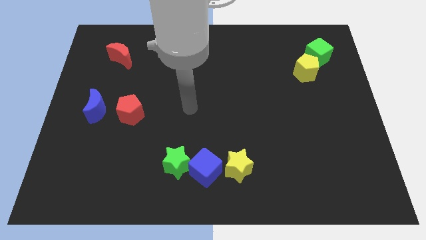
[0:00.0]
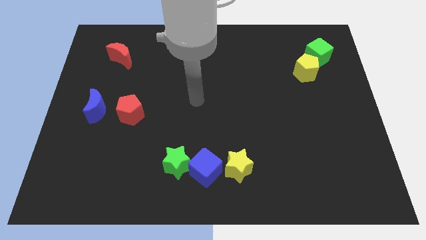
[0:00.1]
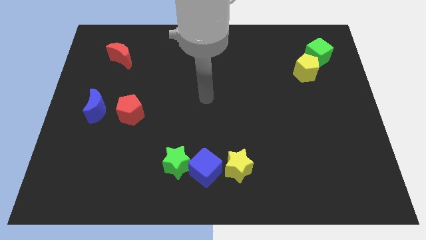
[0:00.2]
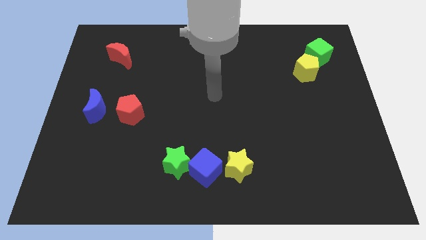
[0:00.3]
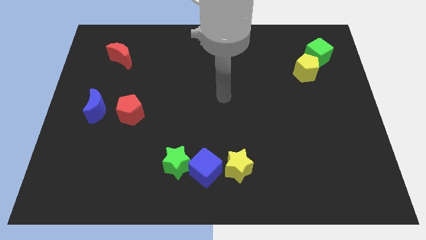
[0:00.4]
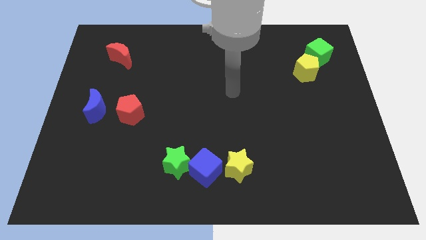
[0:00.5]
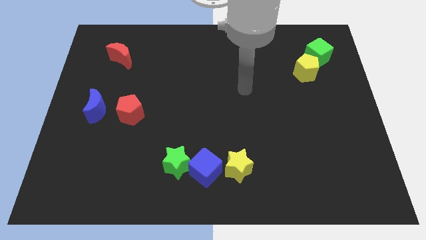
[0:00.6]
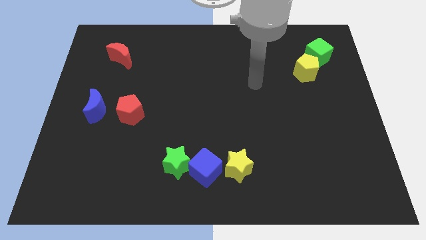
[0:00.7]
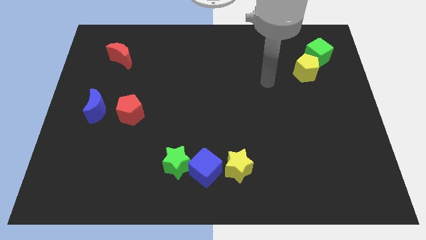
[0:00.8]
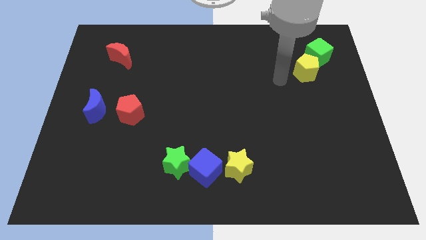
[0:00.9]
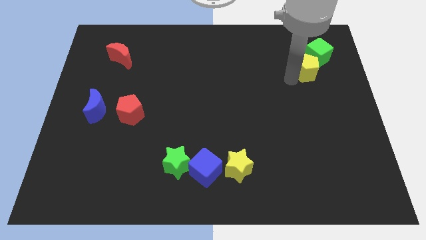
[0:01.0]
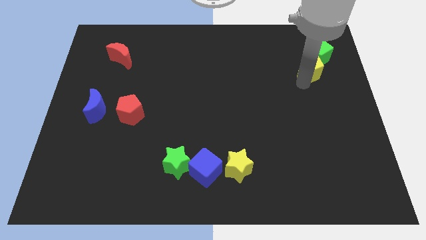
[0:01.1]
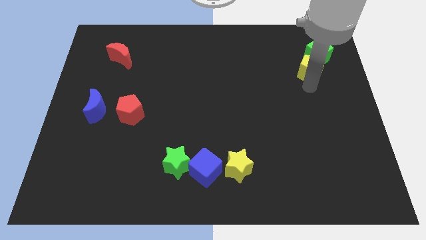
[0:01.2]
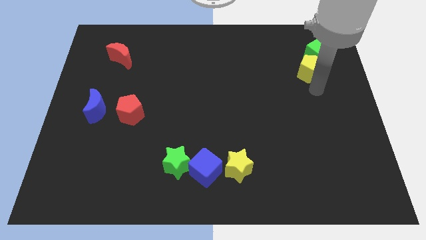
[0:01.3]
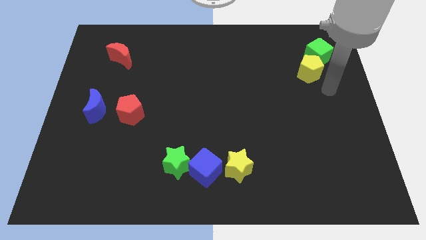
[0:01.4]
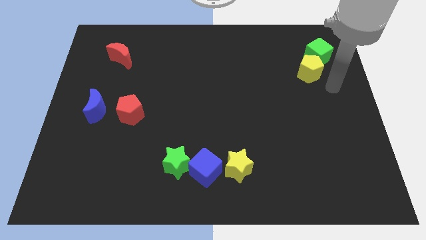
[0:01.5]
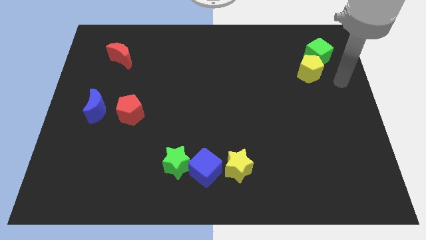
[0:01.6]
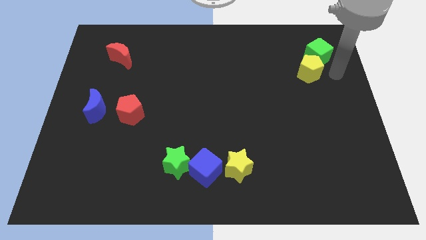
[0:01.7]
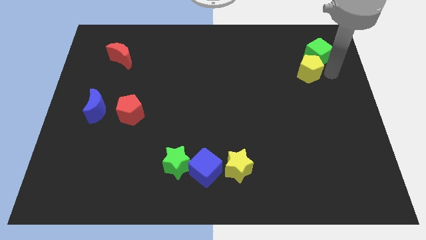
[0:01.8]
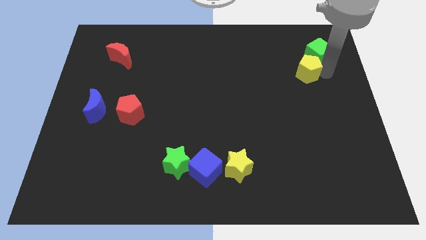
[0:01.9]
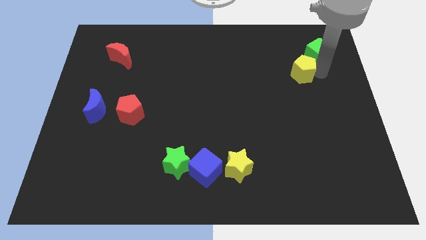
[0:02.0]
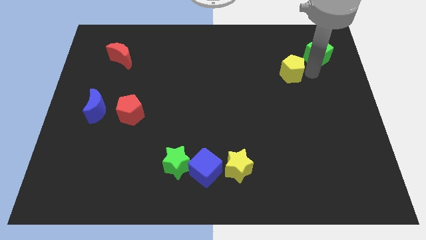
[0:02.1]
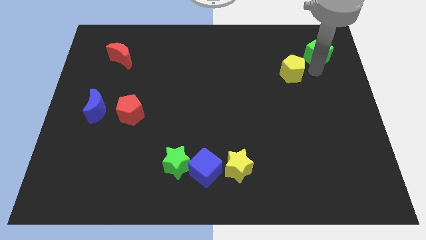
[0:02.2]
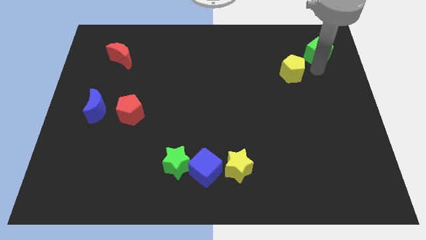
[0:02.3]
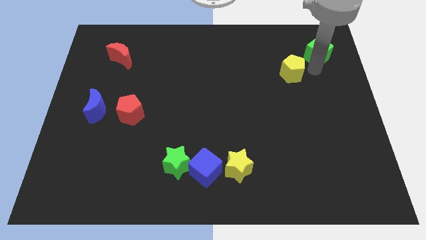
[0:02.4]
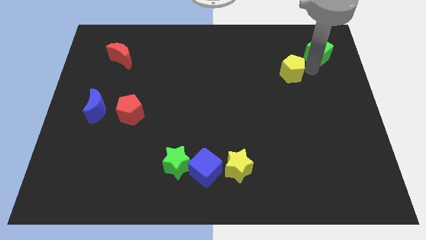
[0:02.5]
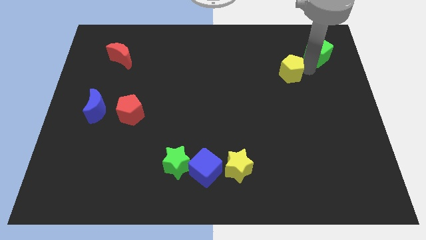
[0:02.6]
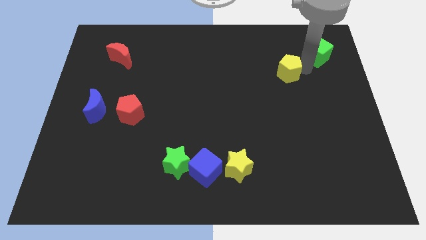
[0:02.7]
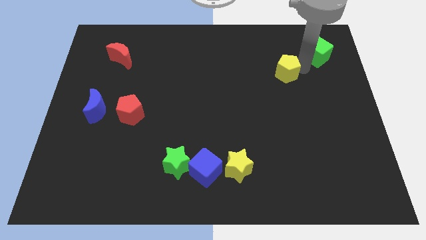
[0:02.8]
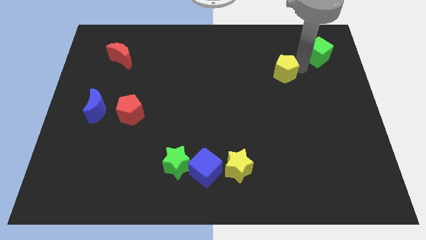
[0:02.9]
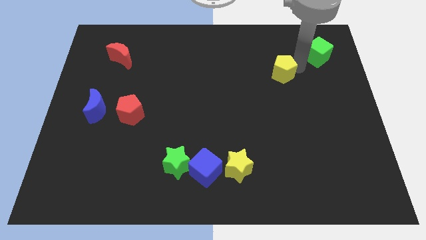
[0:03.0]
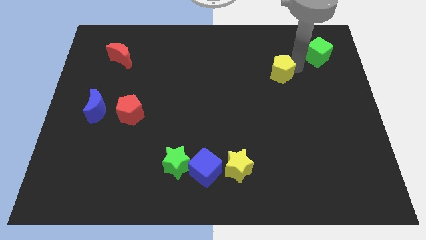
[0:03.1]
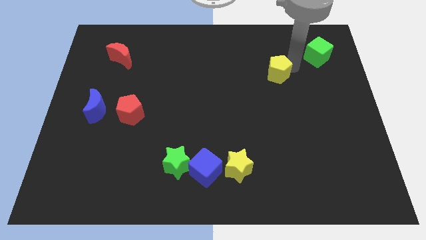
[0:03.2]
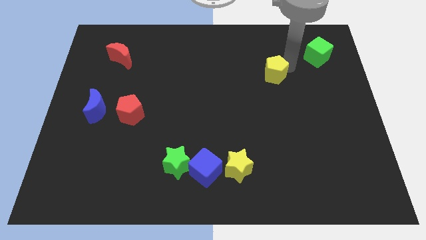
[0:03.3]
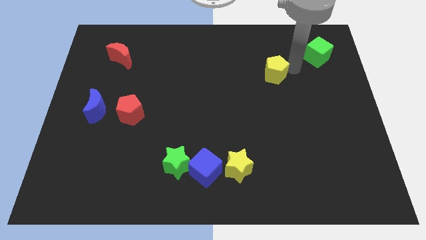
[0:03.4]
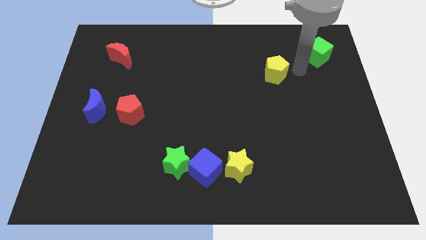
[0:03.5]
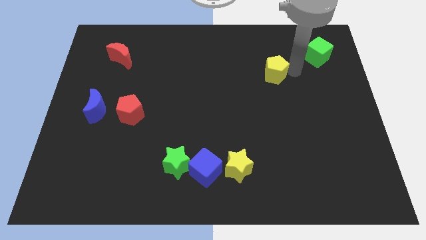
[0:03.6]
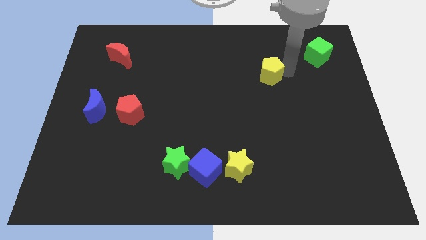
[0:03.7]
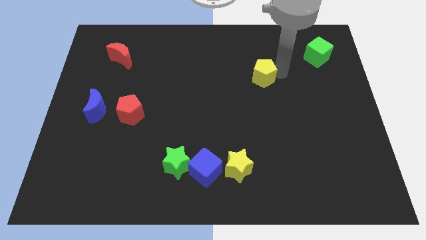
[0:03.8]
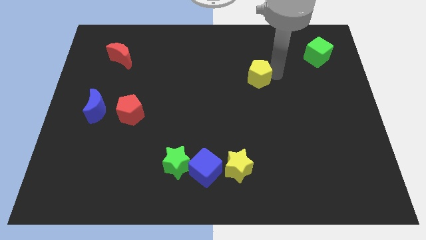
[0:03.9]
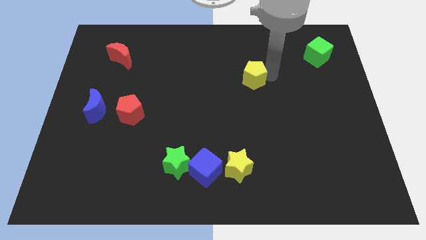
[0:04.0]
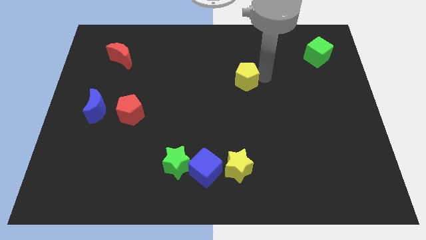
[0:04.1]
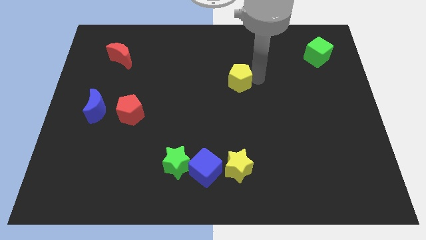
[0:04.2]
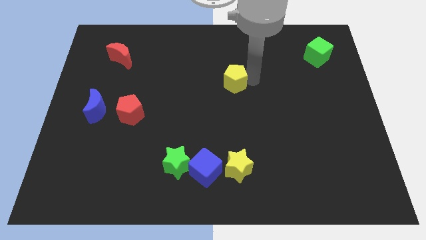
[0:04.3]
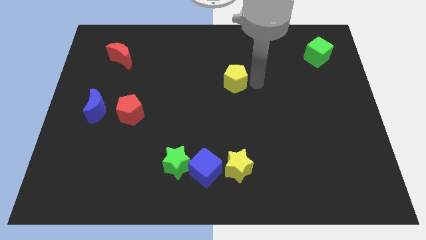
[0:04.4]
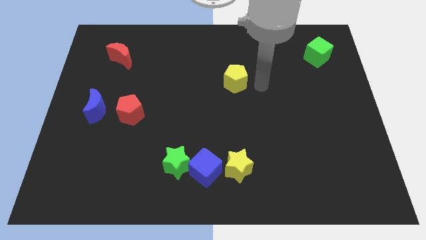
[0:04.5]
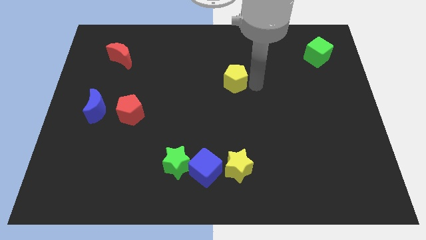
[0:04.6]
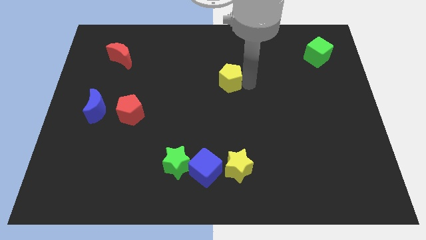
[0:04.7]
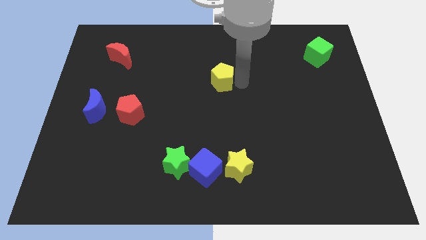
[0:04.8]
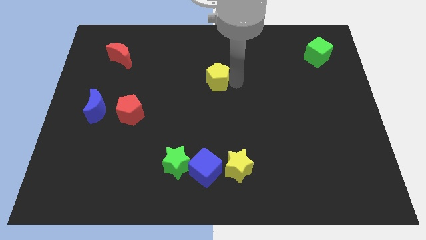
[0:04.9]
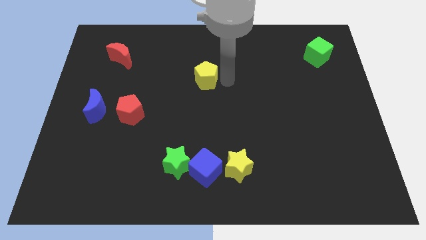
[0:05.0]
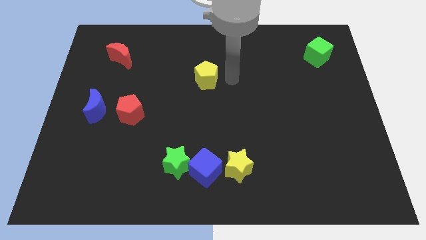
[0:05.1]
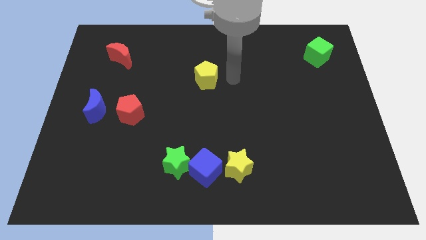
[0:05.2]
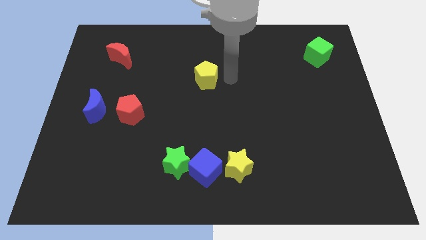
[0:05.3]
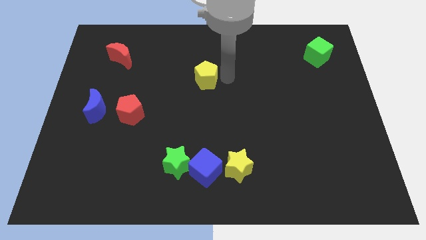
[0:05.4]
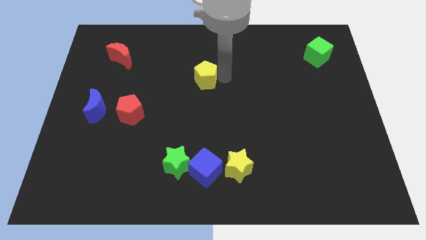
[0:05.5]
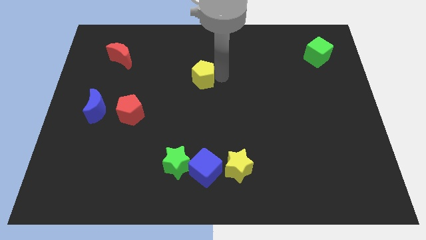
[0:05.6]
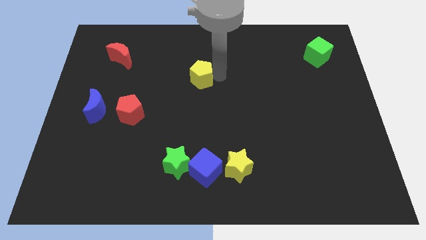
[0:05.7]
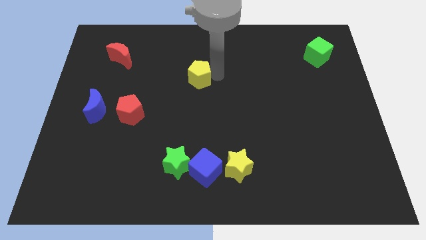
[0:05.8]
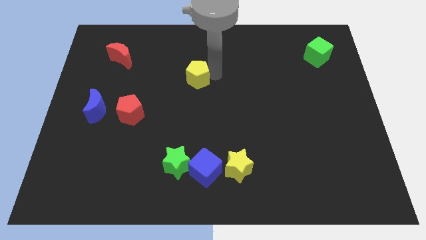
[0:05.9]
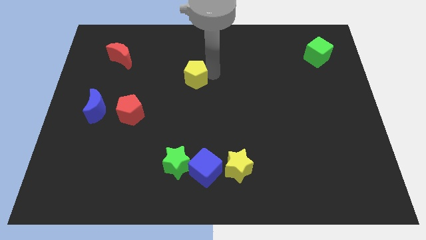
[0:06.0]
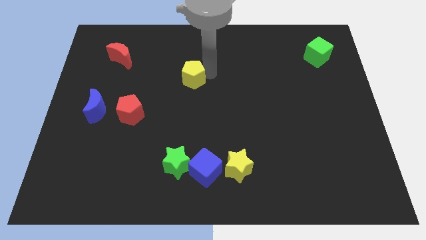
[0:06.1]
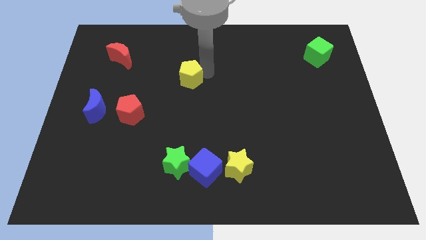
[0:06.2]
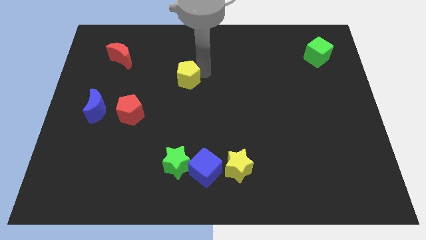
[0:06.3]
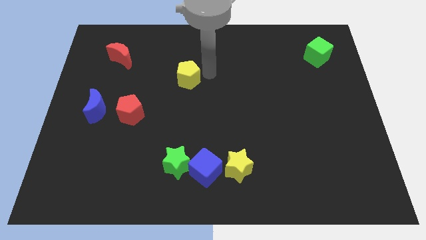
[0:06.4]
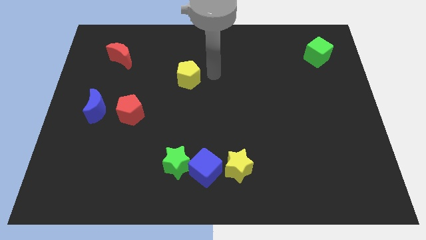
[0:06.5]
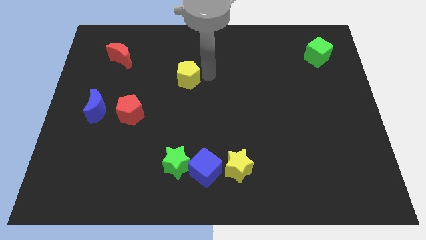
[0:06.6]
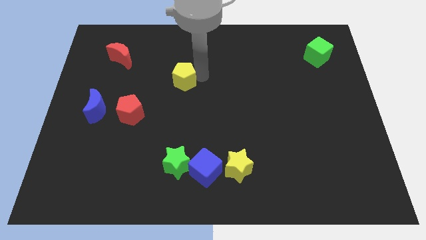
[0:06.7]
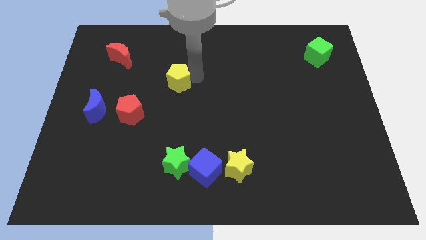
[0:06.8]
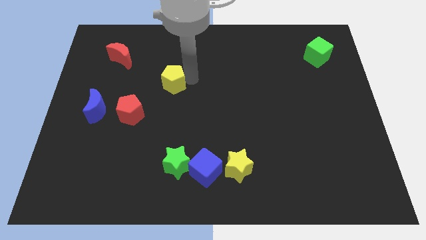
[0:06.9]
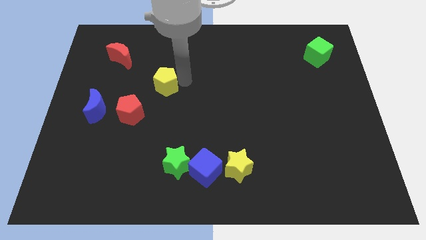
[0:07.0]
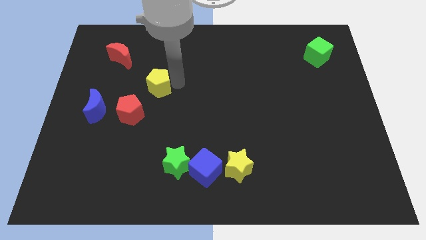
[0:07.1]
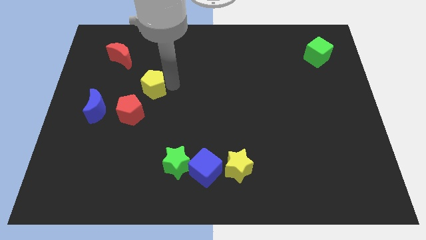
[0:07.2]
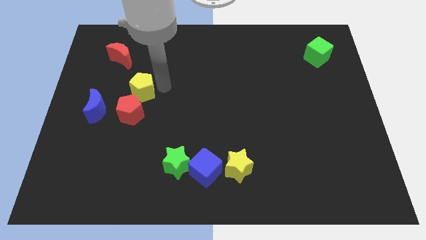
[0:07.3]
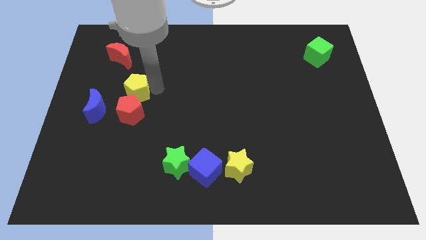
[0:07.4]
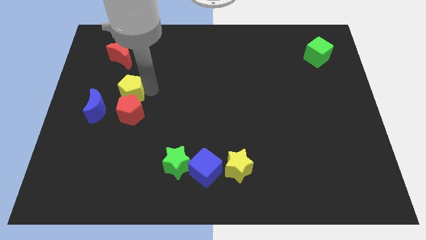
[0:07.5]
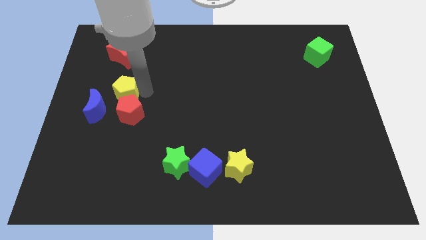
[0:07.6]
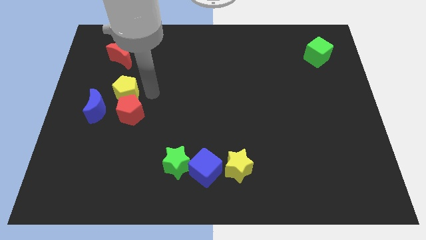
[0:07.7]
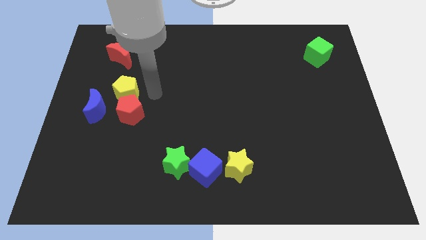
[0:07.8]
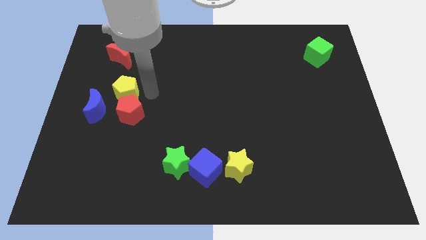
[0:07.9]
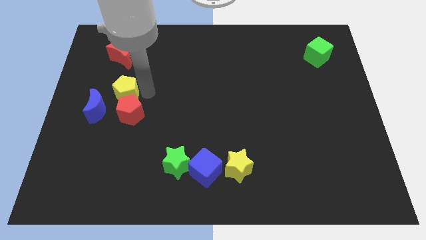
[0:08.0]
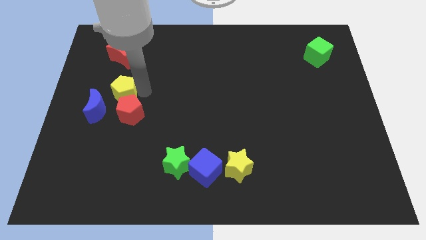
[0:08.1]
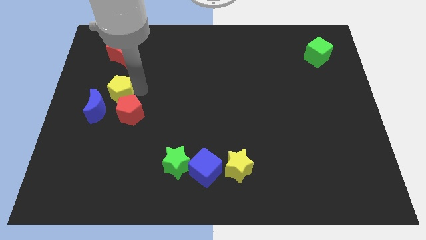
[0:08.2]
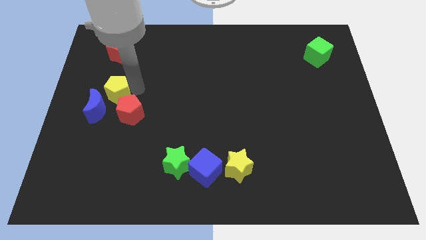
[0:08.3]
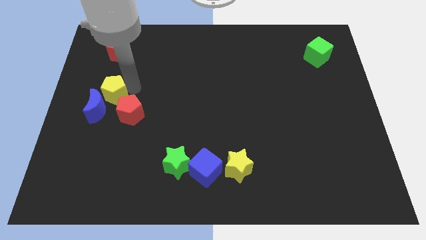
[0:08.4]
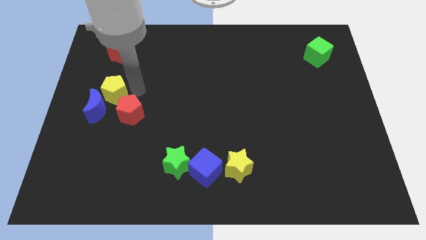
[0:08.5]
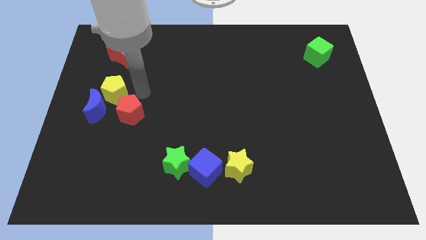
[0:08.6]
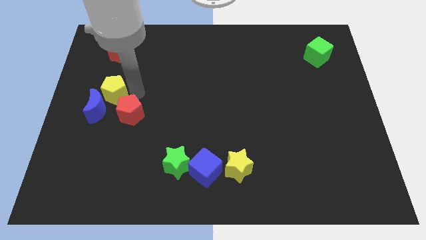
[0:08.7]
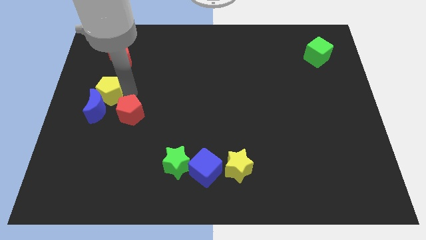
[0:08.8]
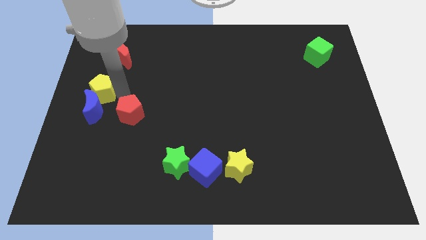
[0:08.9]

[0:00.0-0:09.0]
push the yellow pentagon to the left side
